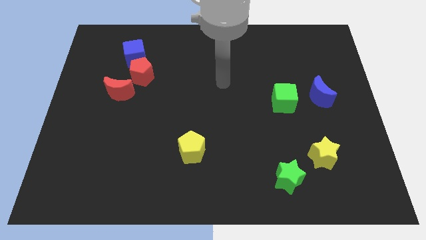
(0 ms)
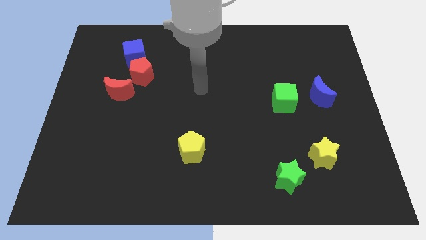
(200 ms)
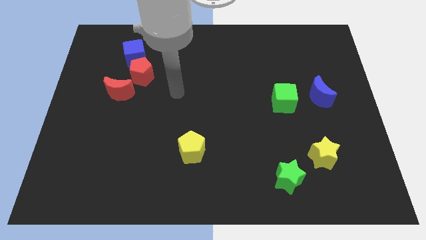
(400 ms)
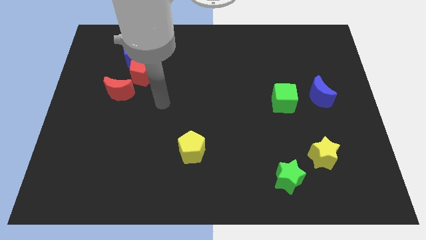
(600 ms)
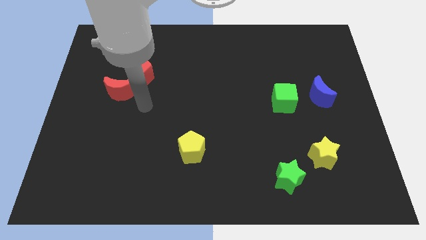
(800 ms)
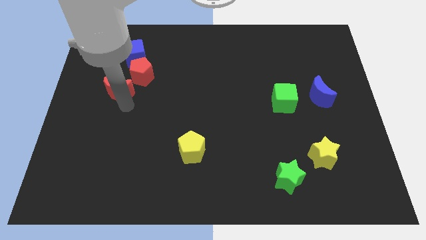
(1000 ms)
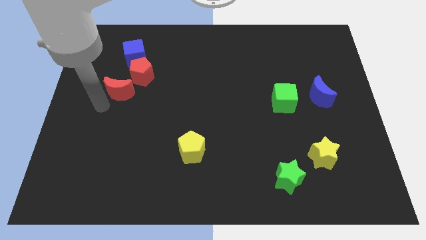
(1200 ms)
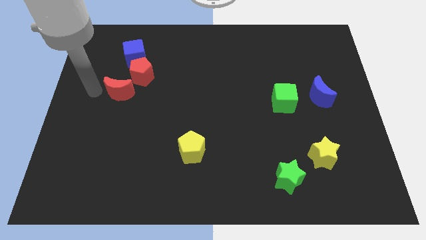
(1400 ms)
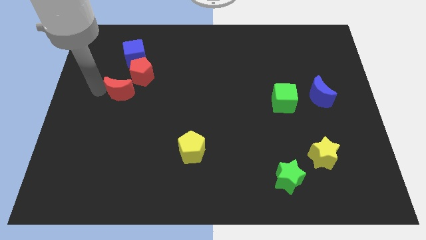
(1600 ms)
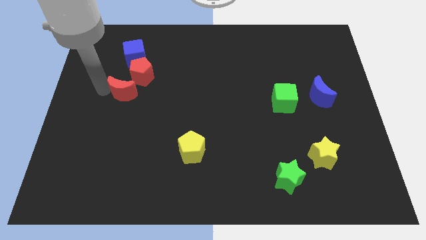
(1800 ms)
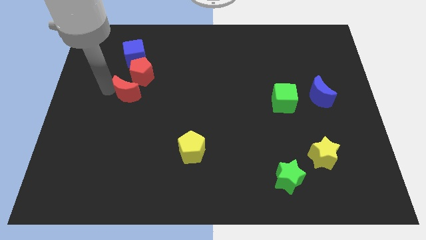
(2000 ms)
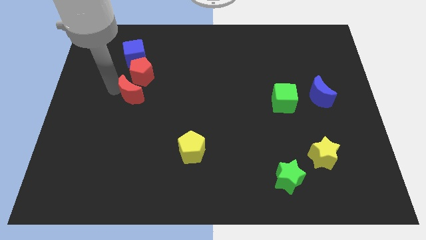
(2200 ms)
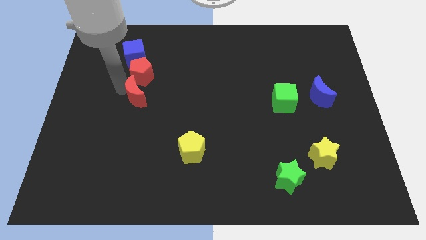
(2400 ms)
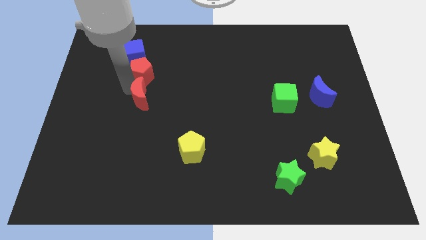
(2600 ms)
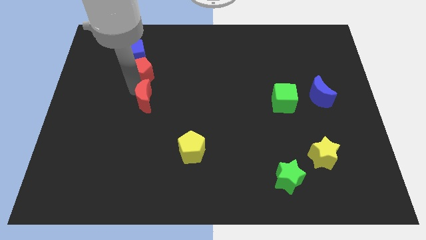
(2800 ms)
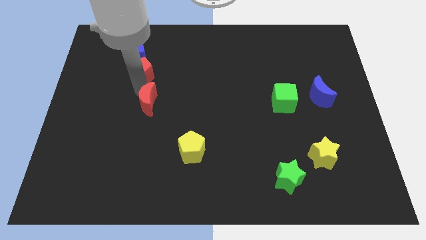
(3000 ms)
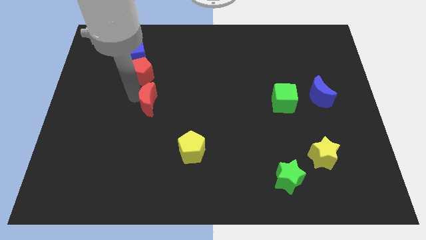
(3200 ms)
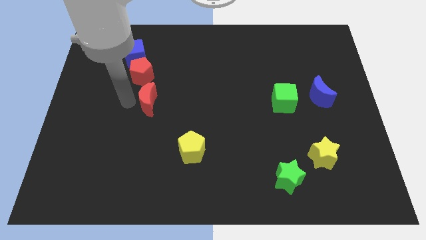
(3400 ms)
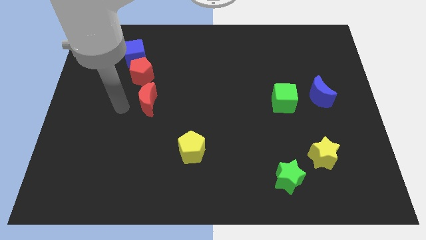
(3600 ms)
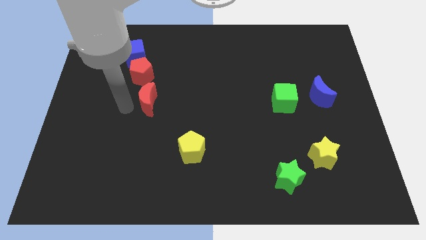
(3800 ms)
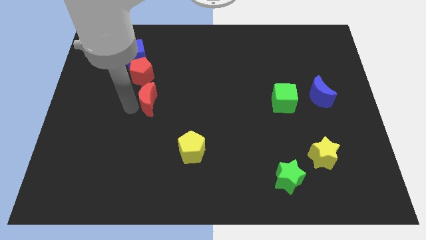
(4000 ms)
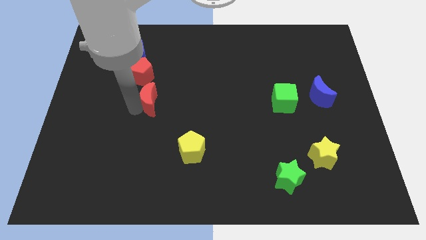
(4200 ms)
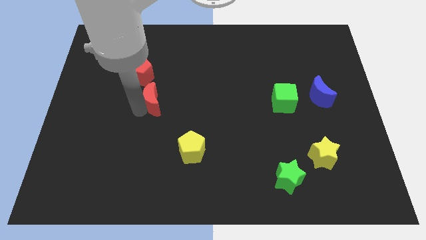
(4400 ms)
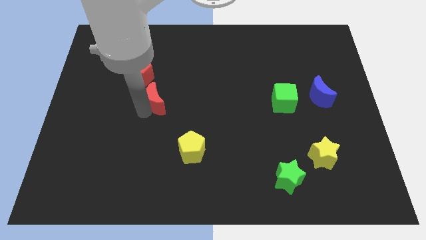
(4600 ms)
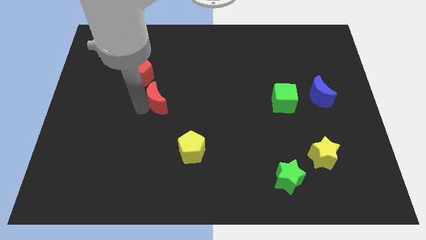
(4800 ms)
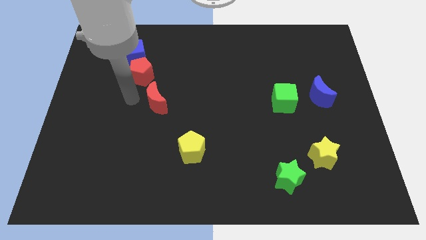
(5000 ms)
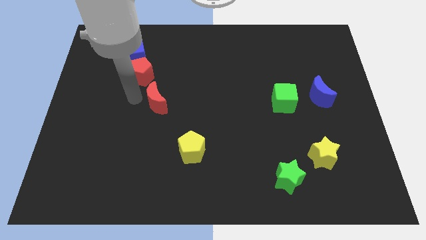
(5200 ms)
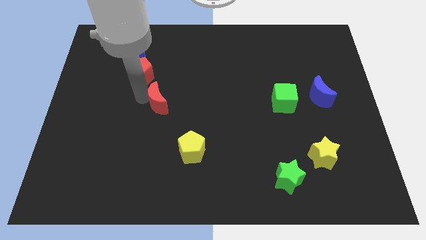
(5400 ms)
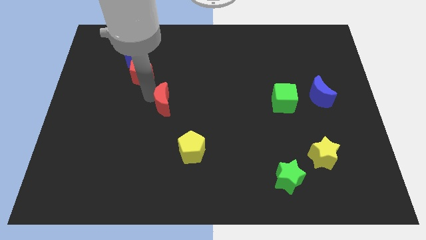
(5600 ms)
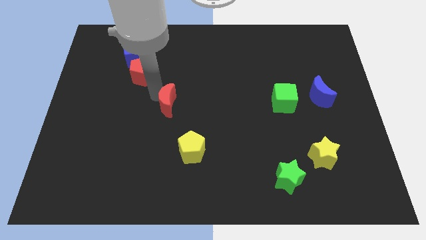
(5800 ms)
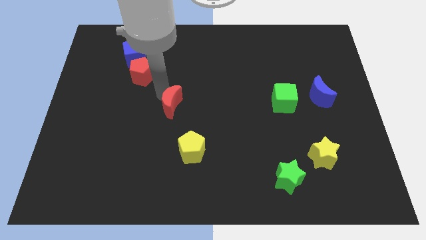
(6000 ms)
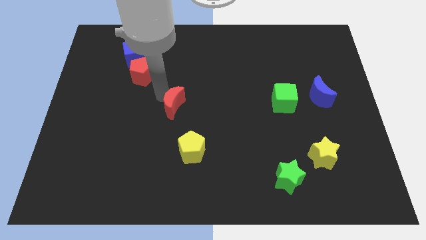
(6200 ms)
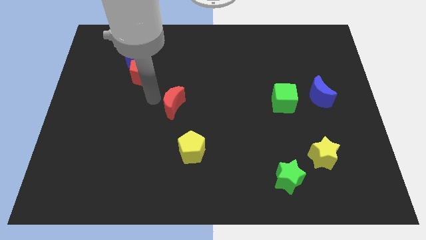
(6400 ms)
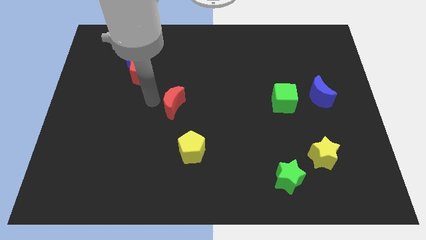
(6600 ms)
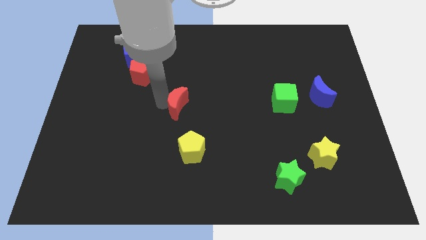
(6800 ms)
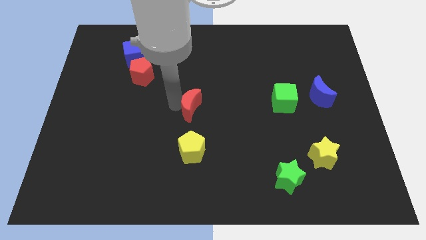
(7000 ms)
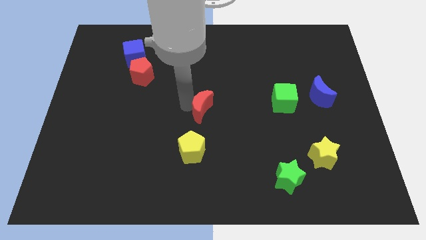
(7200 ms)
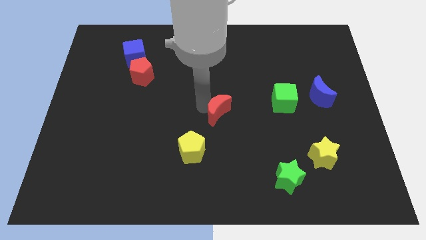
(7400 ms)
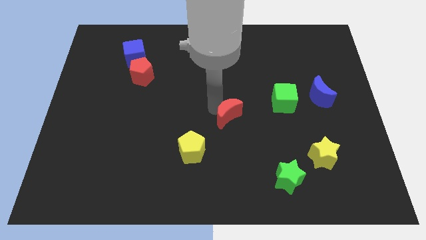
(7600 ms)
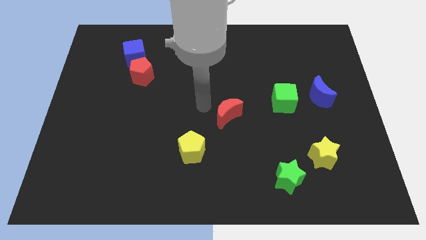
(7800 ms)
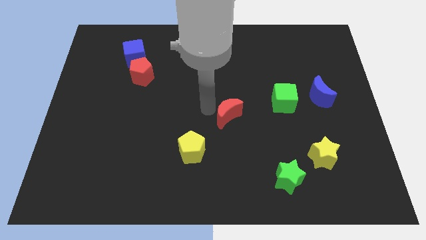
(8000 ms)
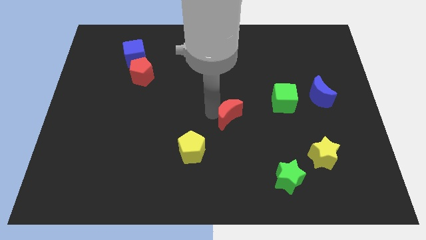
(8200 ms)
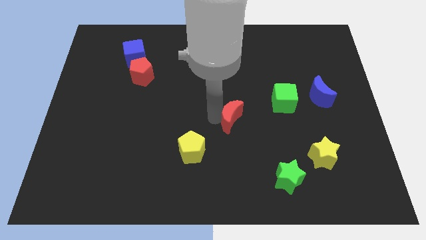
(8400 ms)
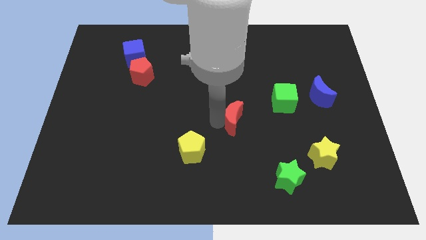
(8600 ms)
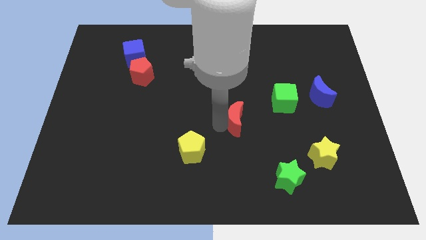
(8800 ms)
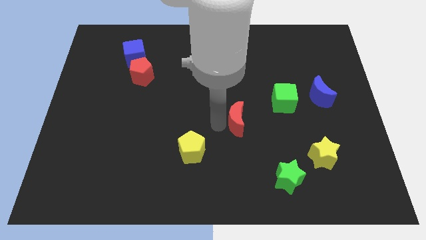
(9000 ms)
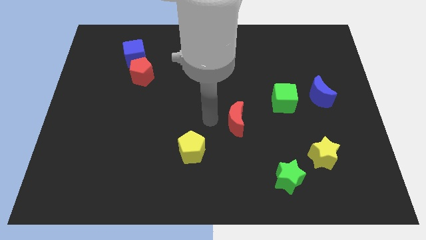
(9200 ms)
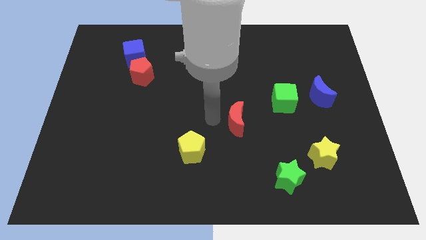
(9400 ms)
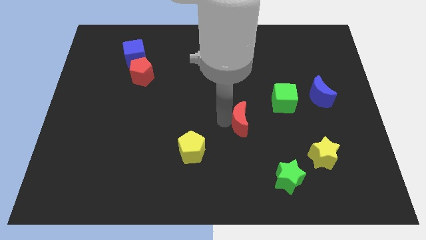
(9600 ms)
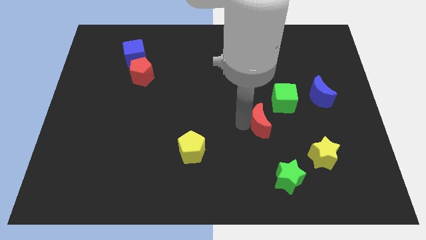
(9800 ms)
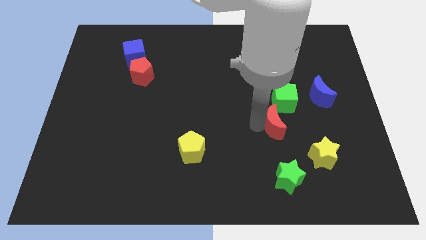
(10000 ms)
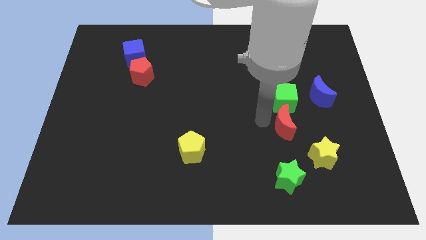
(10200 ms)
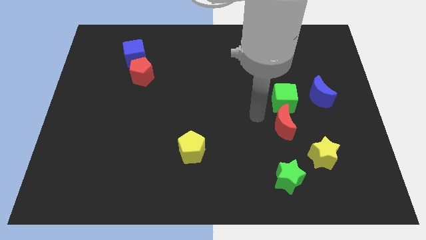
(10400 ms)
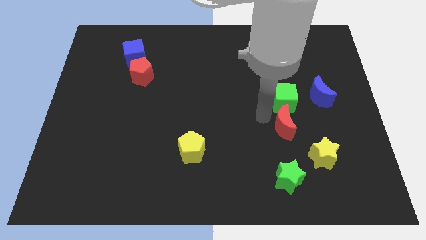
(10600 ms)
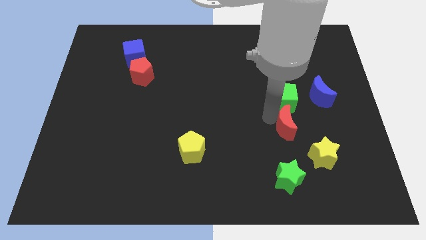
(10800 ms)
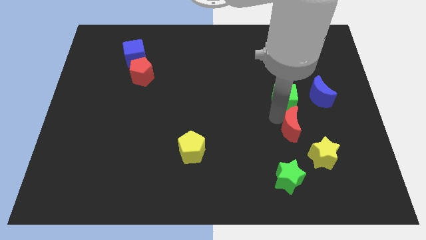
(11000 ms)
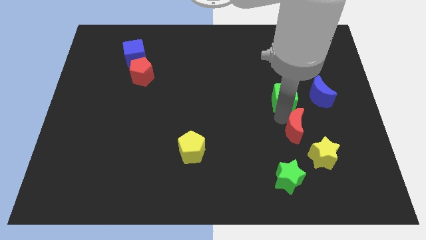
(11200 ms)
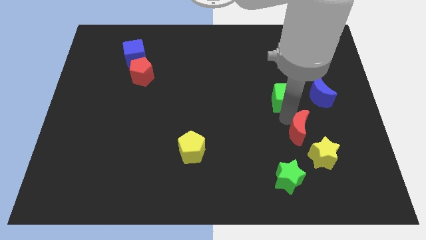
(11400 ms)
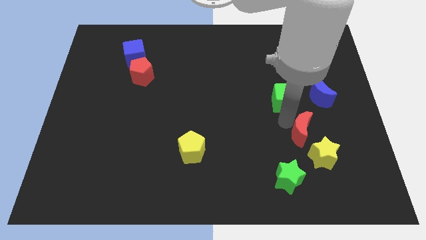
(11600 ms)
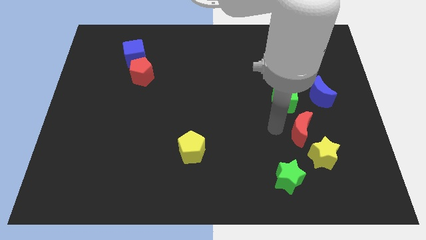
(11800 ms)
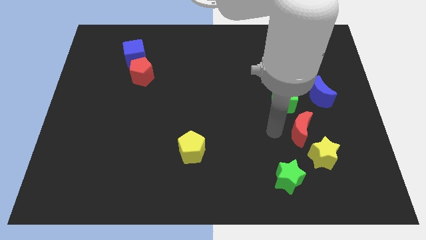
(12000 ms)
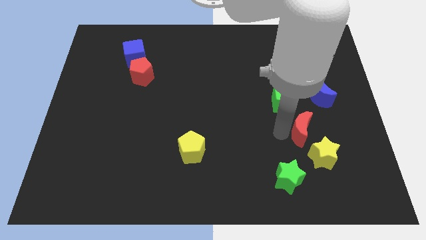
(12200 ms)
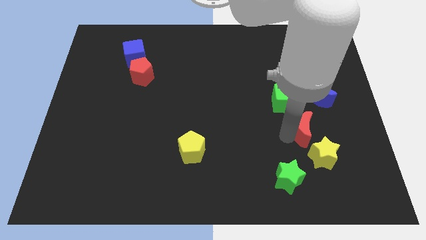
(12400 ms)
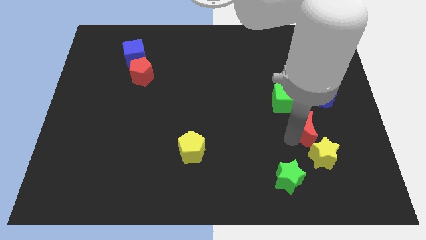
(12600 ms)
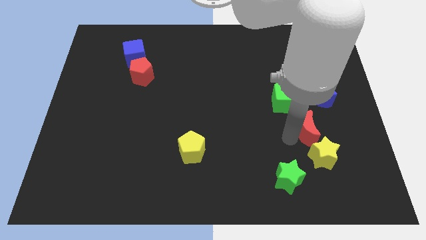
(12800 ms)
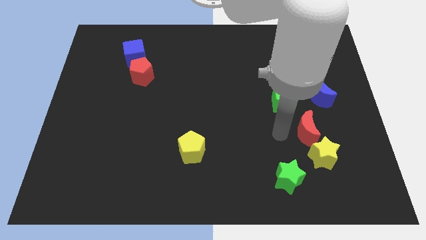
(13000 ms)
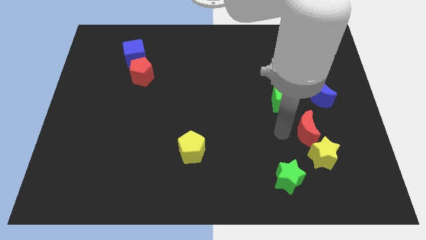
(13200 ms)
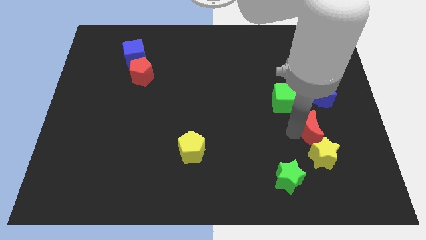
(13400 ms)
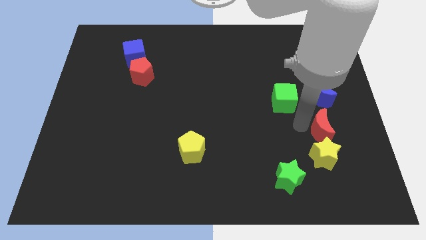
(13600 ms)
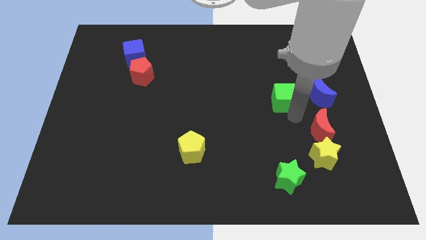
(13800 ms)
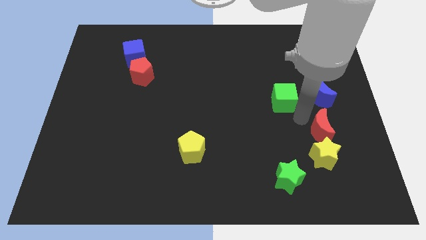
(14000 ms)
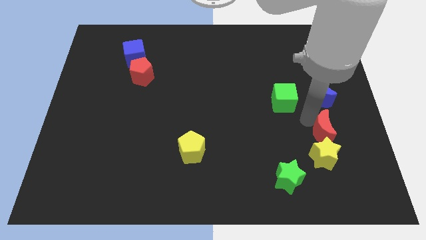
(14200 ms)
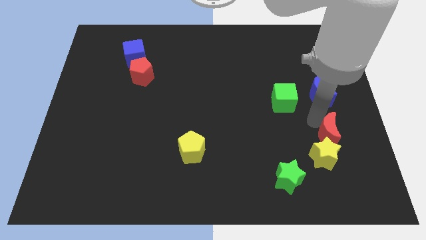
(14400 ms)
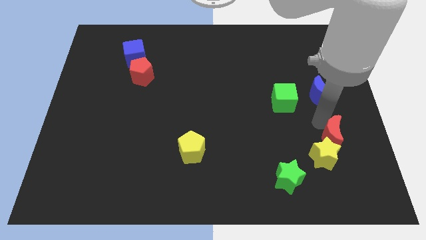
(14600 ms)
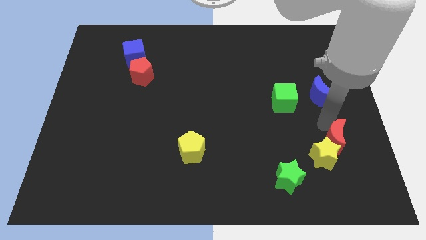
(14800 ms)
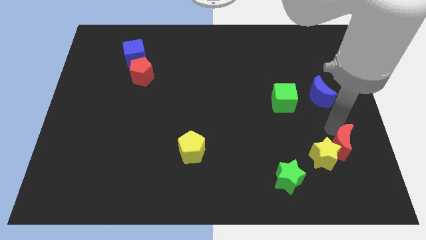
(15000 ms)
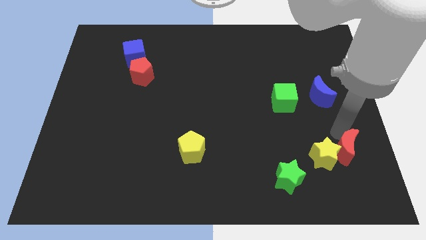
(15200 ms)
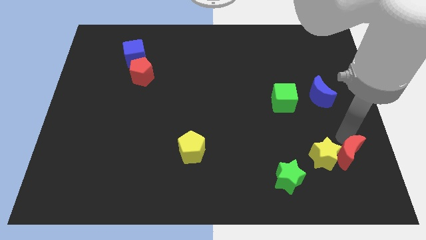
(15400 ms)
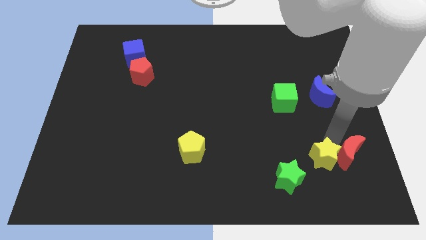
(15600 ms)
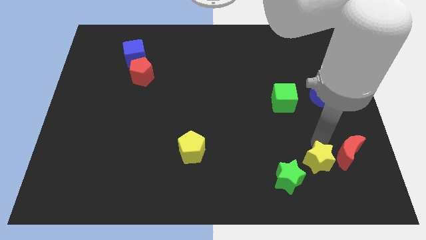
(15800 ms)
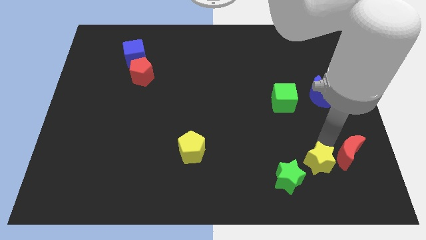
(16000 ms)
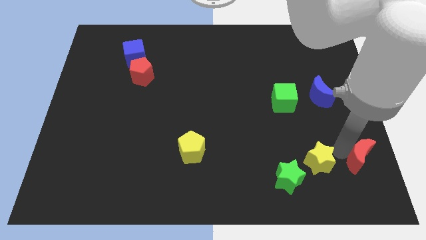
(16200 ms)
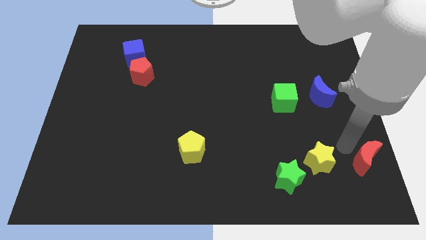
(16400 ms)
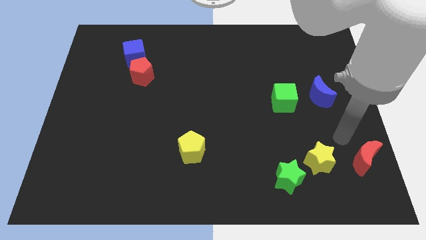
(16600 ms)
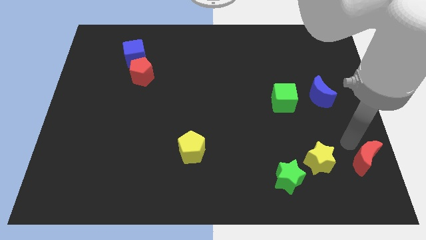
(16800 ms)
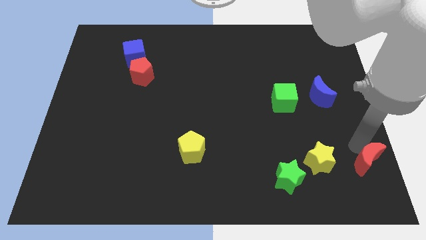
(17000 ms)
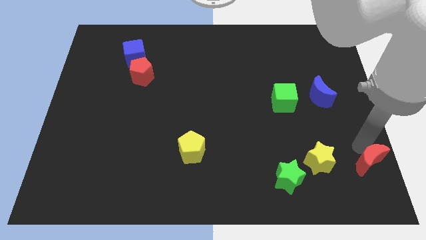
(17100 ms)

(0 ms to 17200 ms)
slide the red moon to the bottom right
